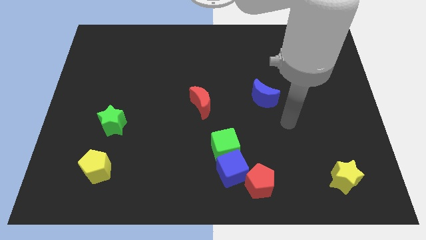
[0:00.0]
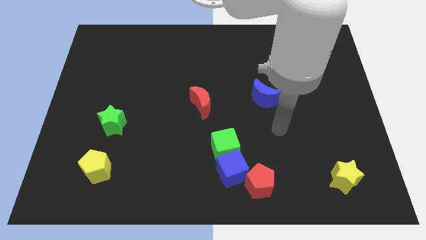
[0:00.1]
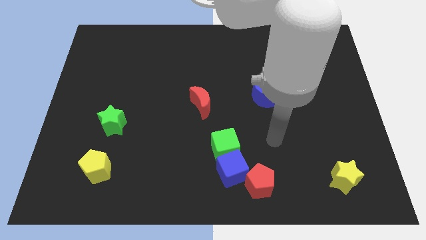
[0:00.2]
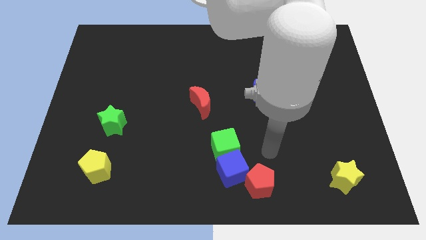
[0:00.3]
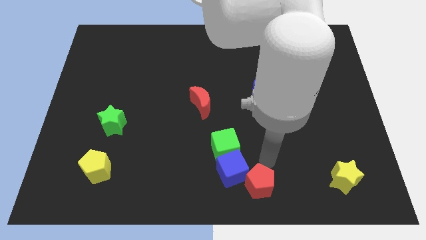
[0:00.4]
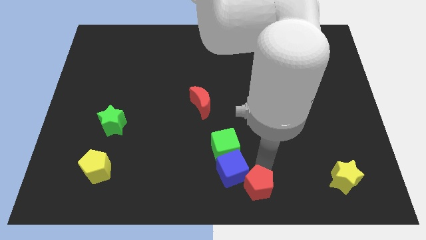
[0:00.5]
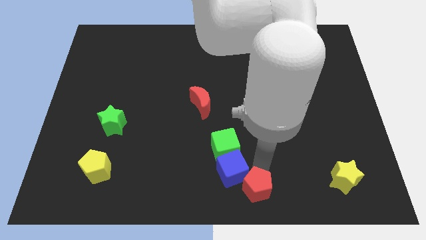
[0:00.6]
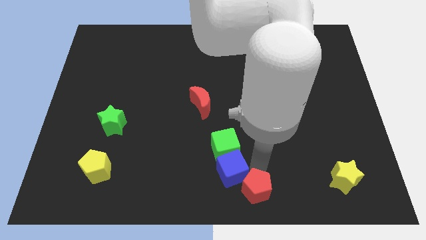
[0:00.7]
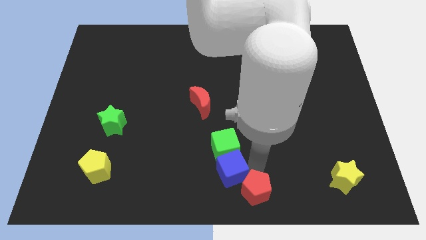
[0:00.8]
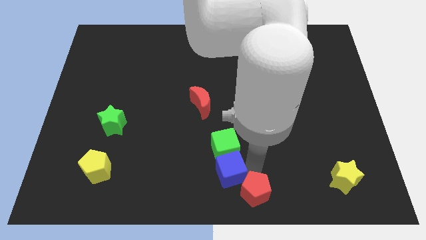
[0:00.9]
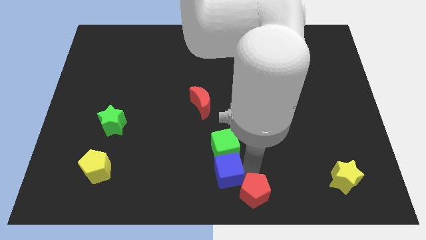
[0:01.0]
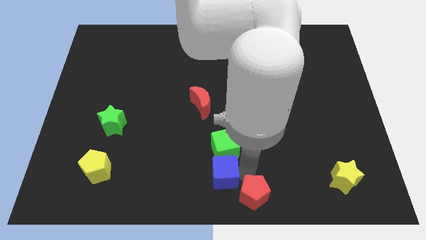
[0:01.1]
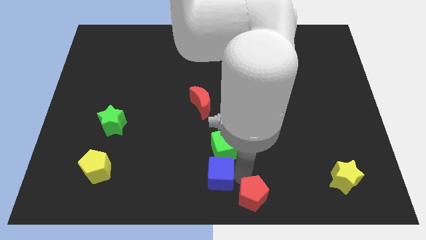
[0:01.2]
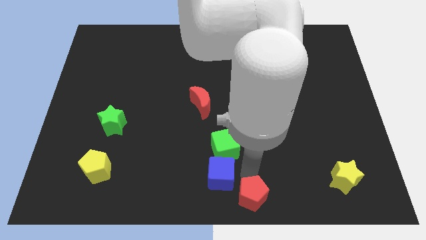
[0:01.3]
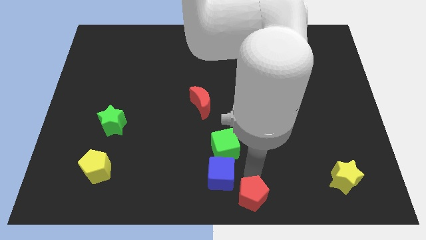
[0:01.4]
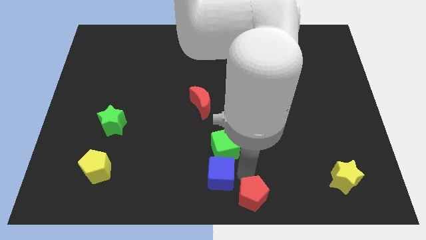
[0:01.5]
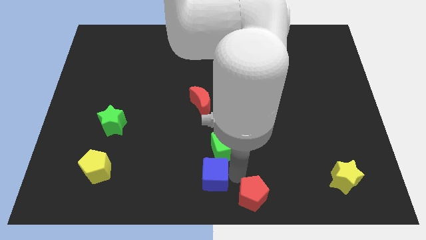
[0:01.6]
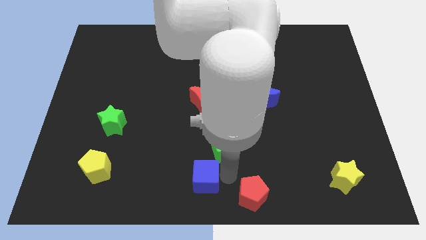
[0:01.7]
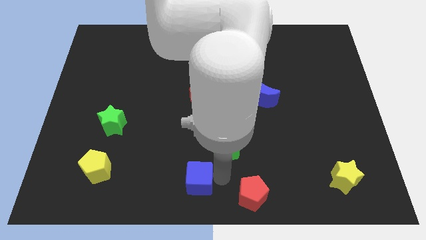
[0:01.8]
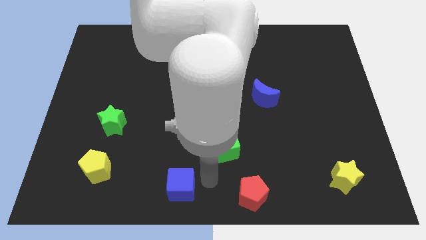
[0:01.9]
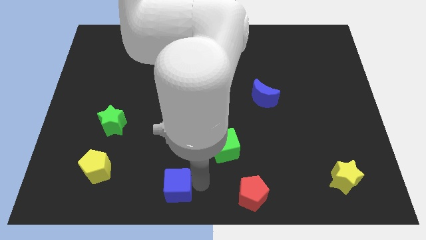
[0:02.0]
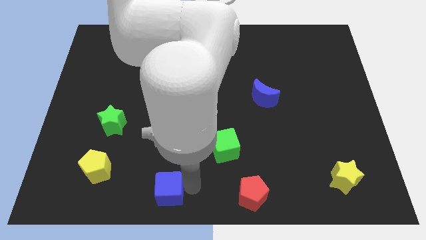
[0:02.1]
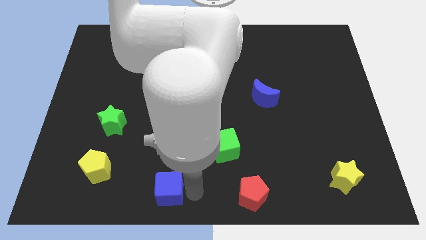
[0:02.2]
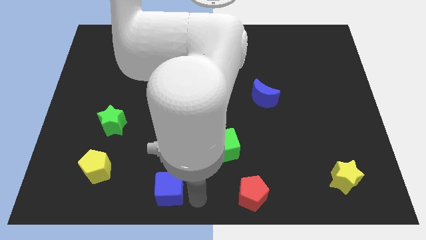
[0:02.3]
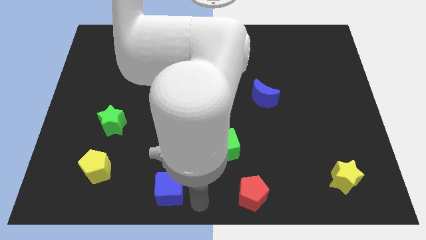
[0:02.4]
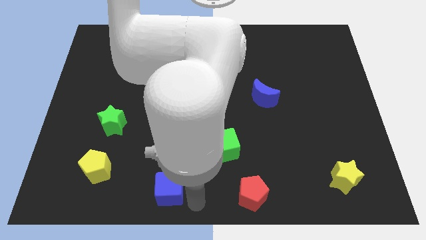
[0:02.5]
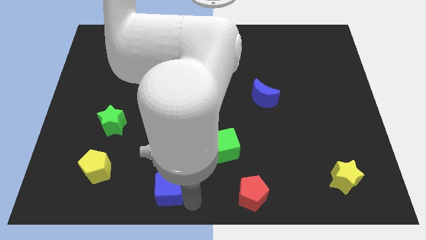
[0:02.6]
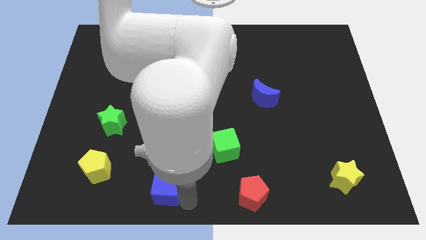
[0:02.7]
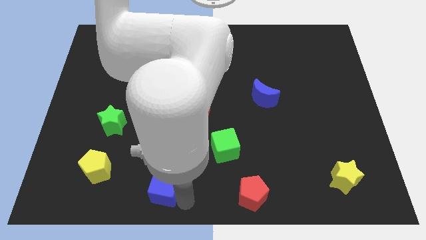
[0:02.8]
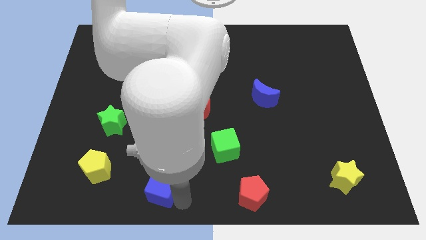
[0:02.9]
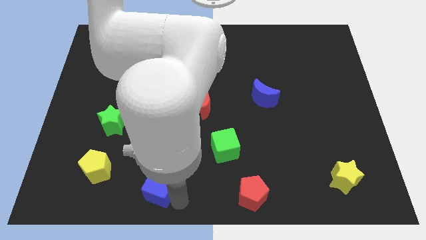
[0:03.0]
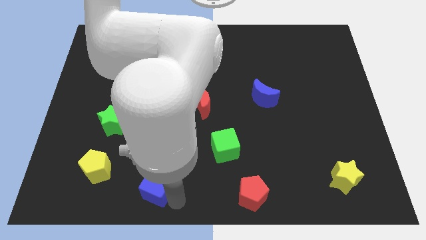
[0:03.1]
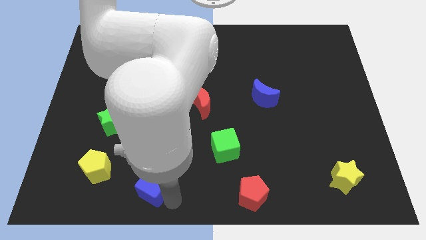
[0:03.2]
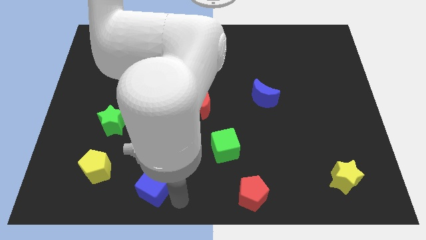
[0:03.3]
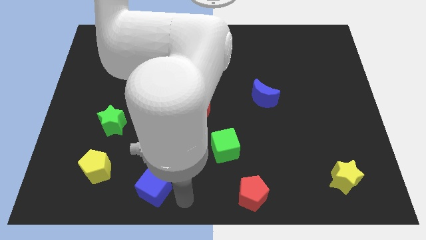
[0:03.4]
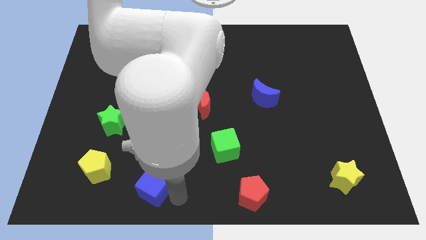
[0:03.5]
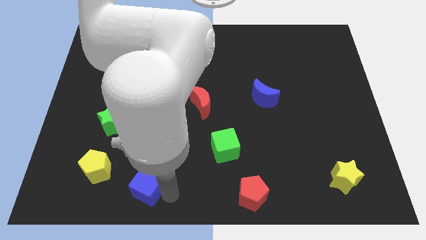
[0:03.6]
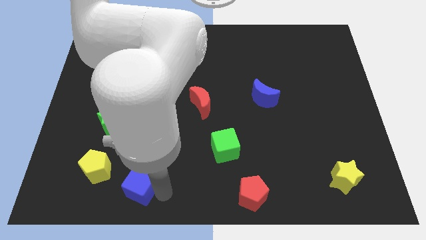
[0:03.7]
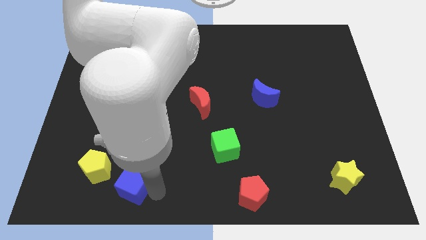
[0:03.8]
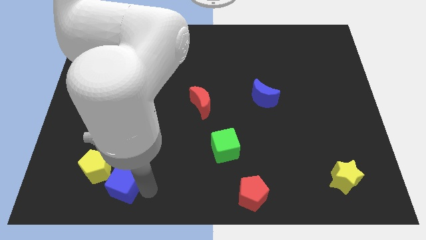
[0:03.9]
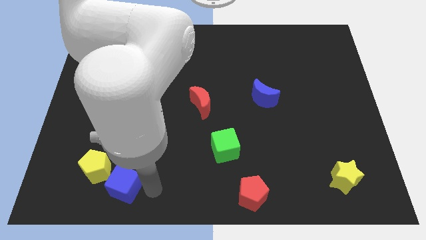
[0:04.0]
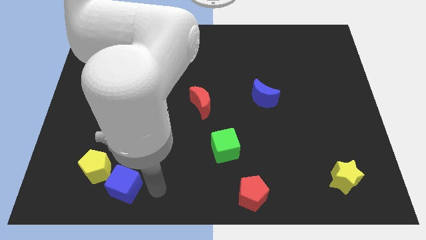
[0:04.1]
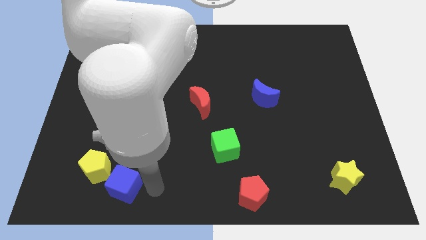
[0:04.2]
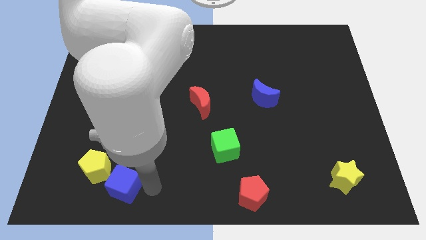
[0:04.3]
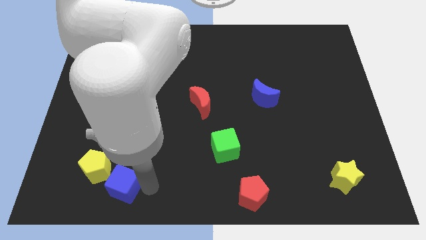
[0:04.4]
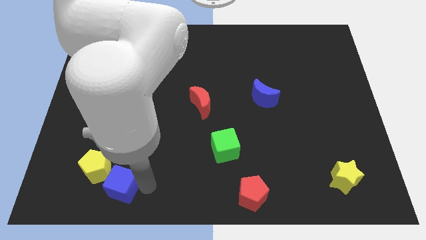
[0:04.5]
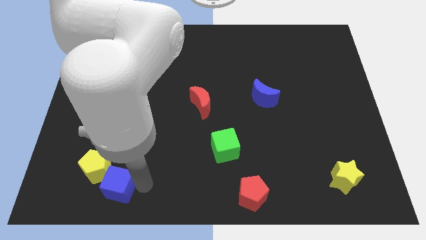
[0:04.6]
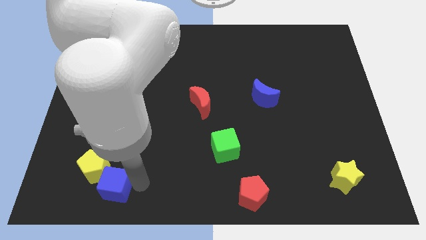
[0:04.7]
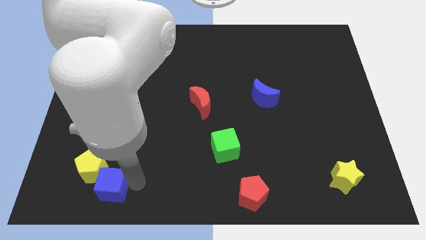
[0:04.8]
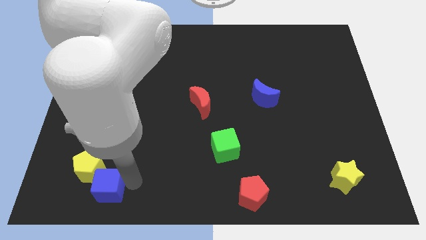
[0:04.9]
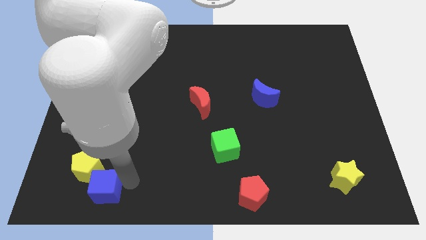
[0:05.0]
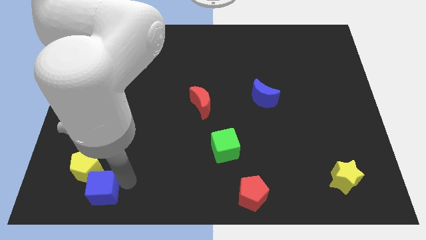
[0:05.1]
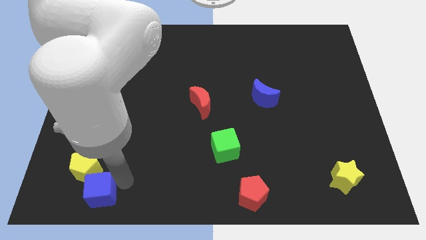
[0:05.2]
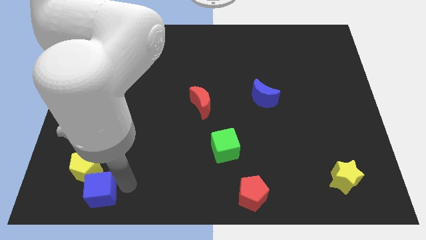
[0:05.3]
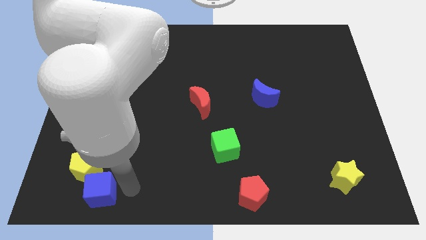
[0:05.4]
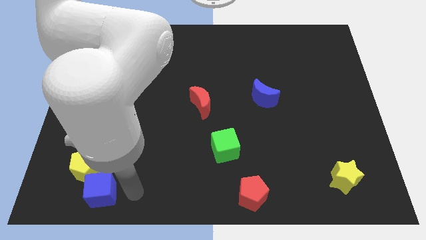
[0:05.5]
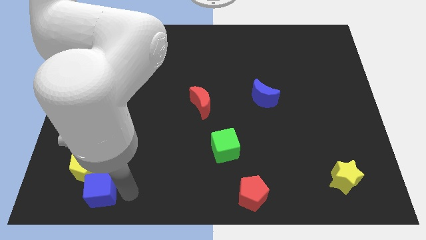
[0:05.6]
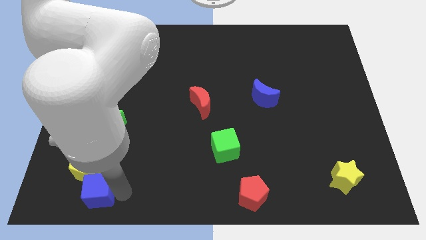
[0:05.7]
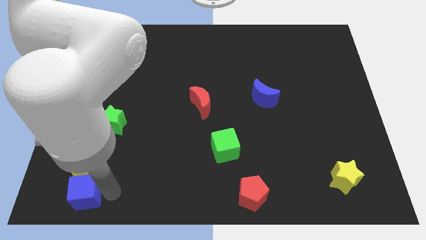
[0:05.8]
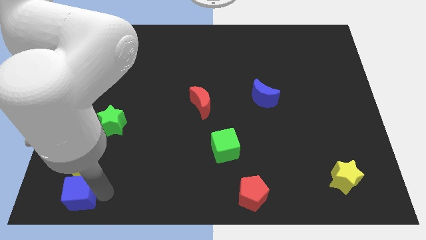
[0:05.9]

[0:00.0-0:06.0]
push the blue cube to the bottom left of the board
